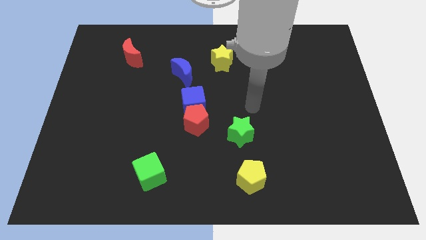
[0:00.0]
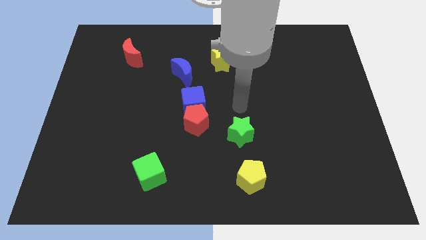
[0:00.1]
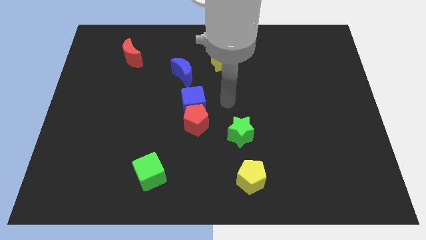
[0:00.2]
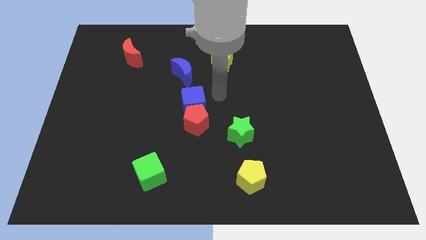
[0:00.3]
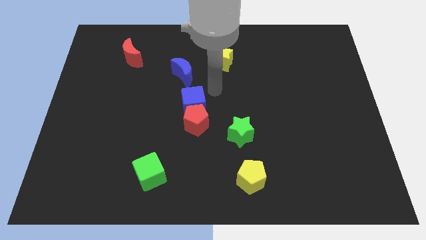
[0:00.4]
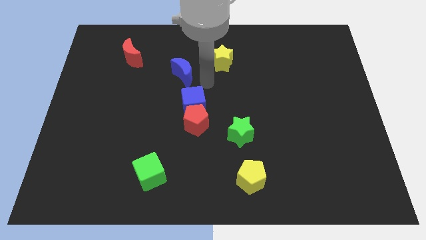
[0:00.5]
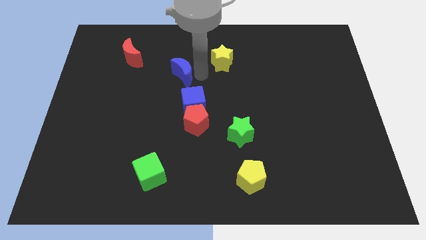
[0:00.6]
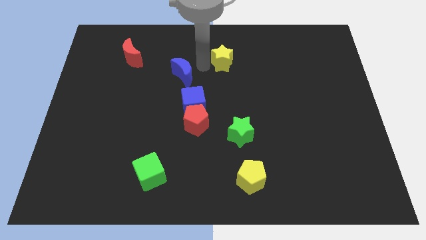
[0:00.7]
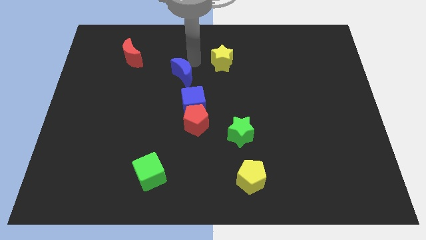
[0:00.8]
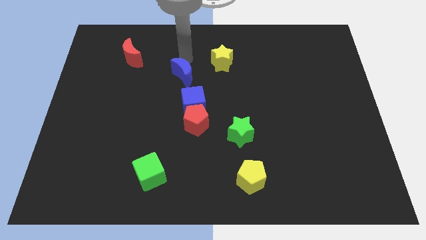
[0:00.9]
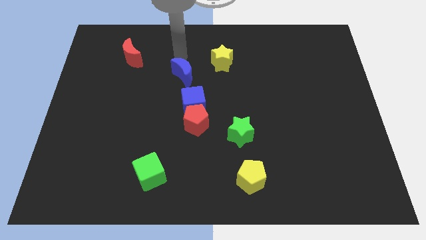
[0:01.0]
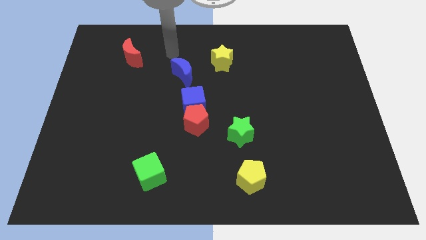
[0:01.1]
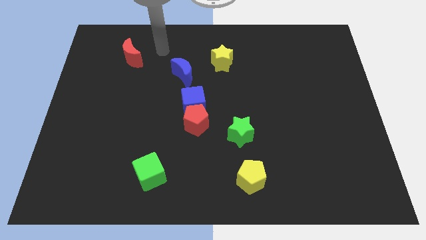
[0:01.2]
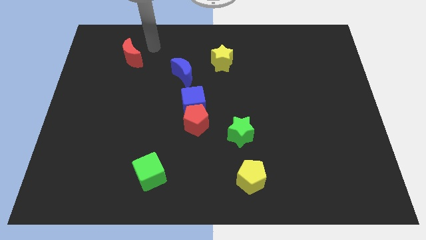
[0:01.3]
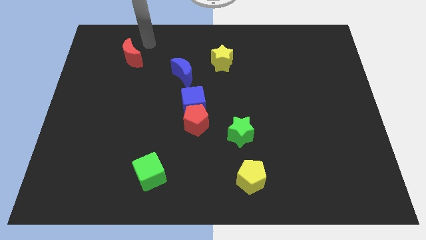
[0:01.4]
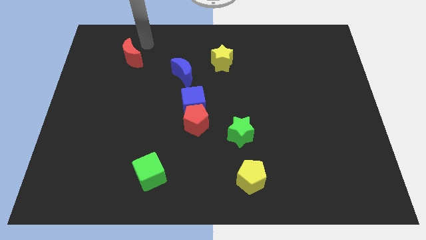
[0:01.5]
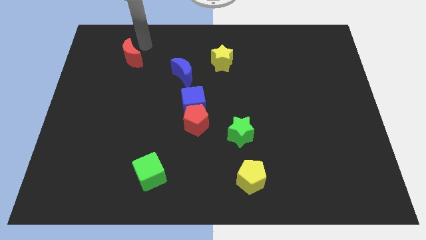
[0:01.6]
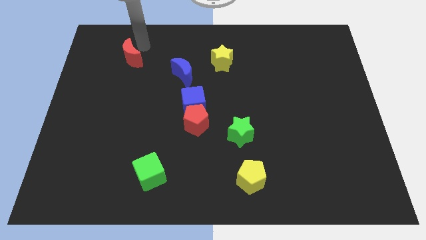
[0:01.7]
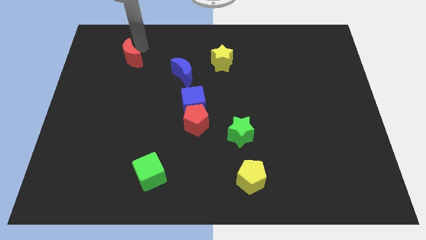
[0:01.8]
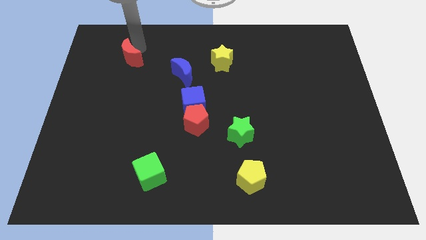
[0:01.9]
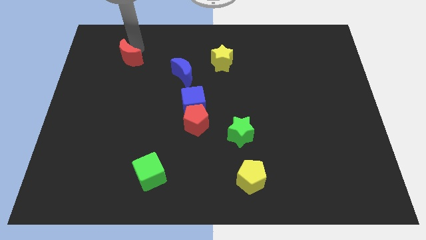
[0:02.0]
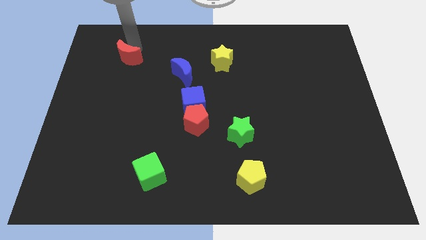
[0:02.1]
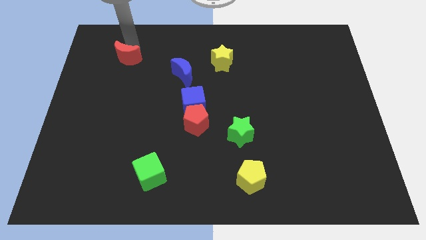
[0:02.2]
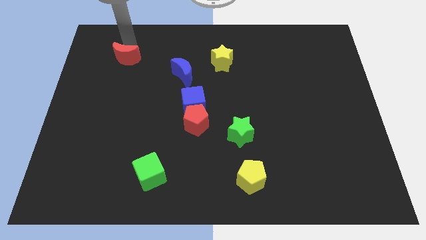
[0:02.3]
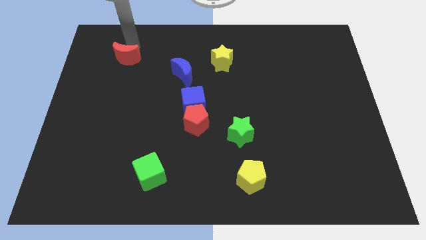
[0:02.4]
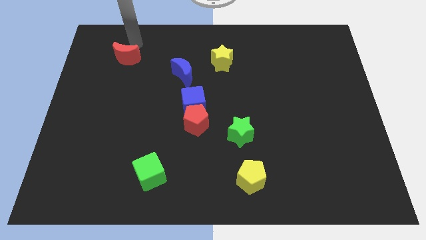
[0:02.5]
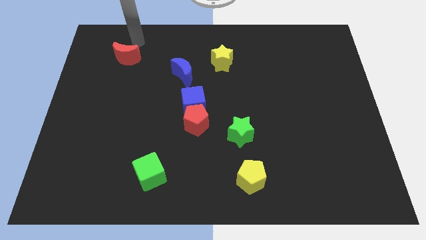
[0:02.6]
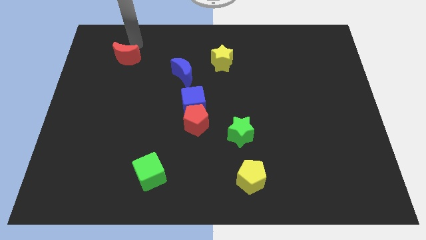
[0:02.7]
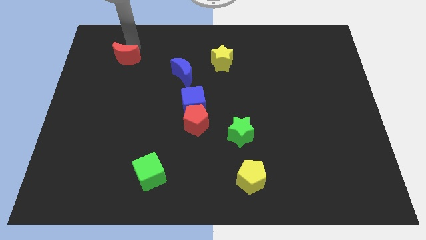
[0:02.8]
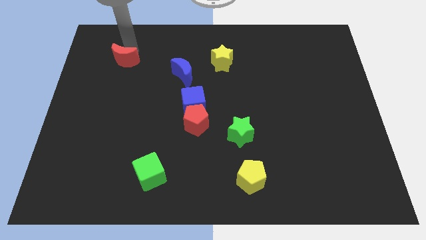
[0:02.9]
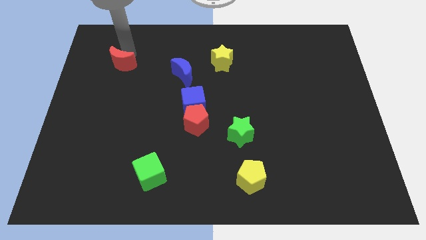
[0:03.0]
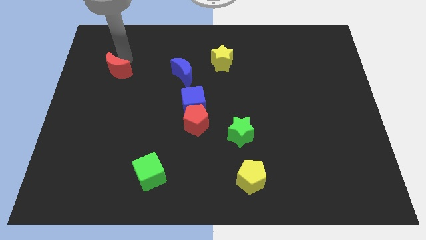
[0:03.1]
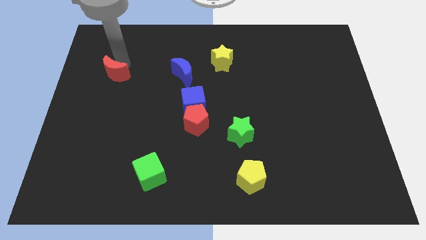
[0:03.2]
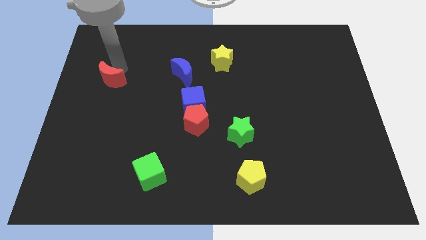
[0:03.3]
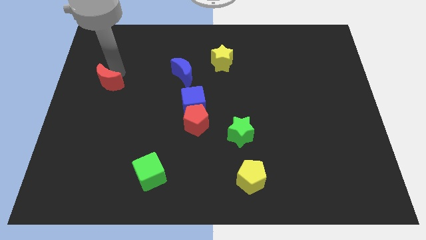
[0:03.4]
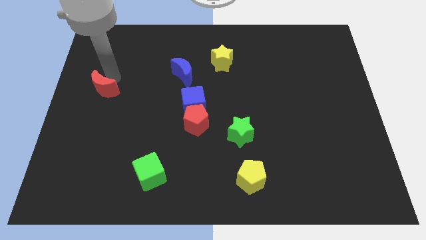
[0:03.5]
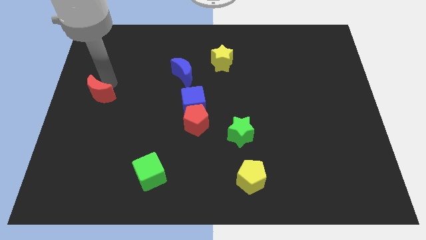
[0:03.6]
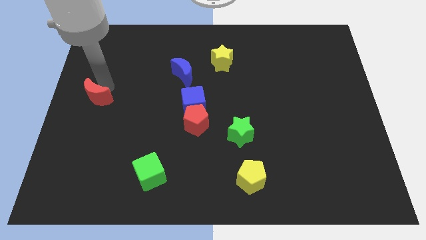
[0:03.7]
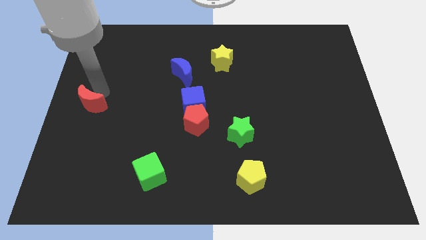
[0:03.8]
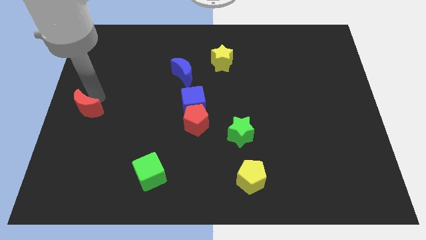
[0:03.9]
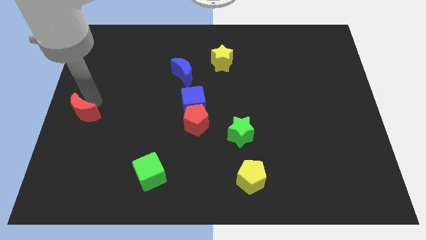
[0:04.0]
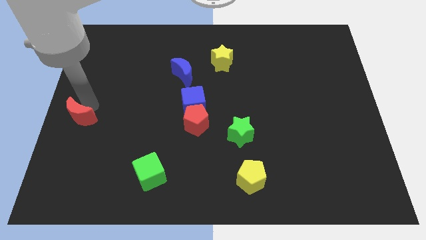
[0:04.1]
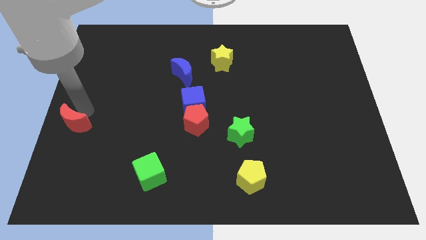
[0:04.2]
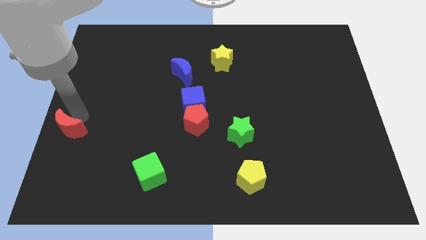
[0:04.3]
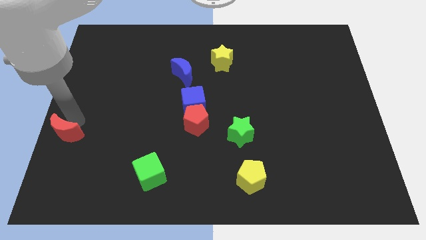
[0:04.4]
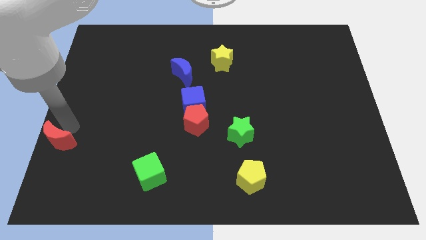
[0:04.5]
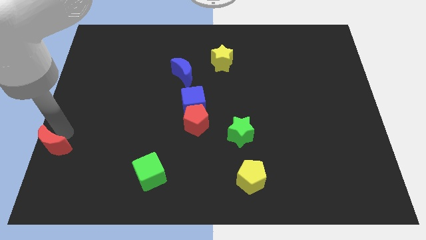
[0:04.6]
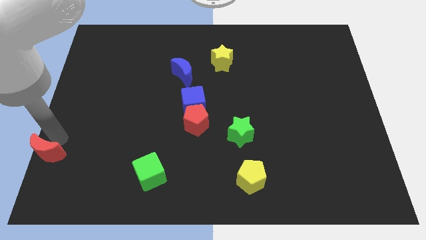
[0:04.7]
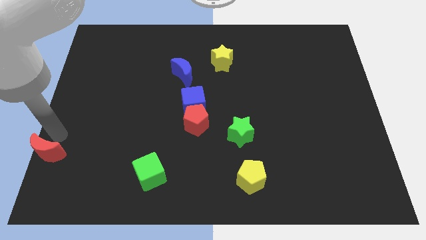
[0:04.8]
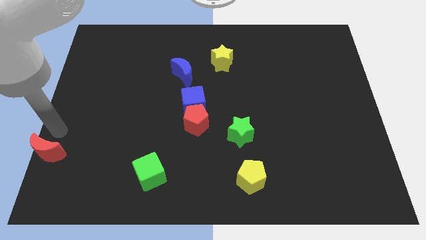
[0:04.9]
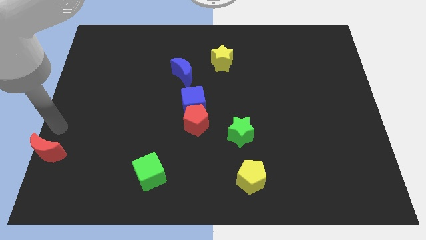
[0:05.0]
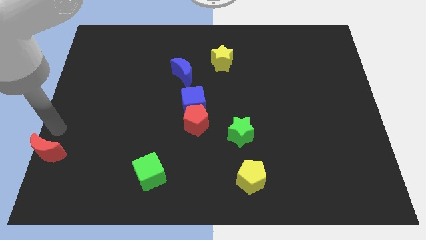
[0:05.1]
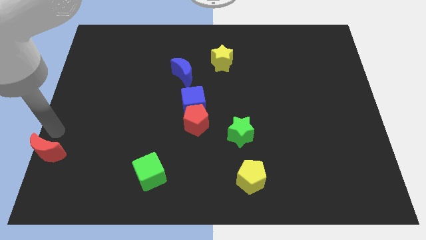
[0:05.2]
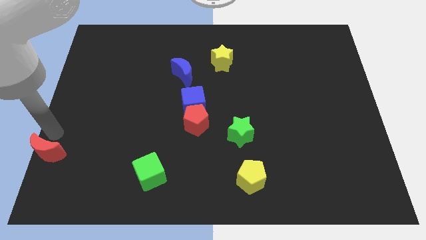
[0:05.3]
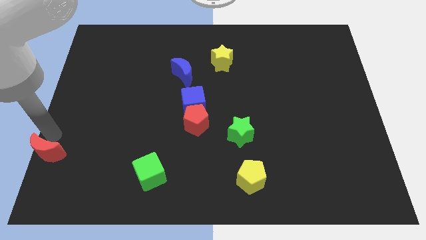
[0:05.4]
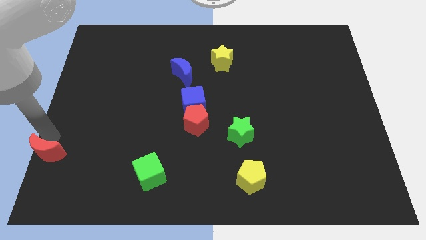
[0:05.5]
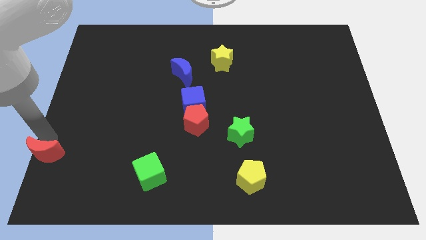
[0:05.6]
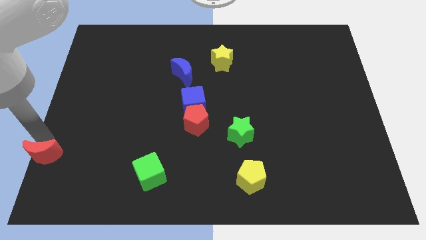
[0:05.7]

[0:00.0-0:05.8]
move the red moon to the lower left corner
